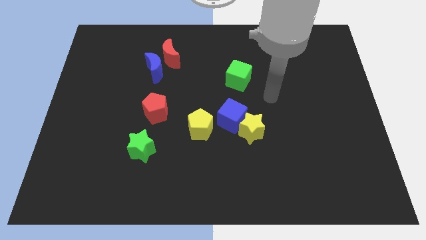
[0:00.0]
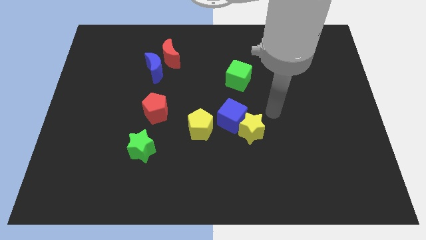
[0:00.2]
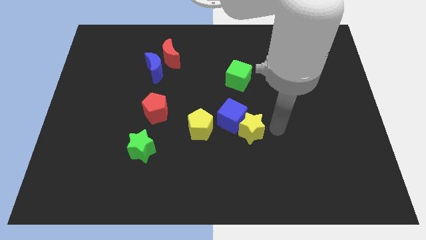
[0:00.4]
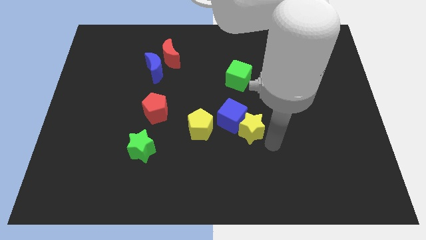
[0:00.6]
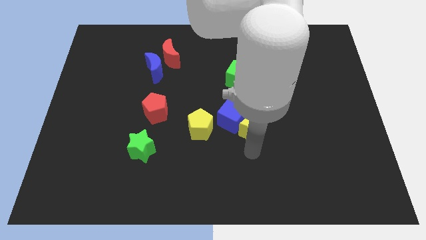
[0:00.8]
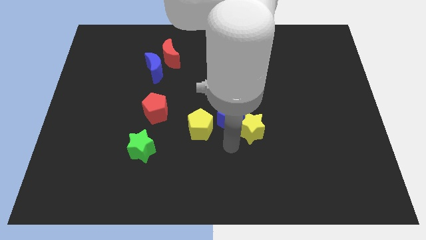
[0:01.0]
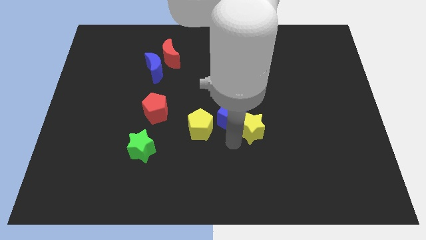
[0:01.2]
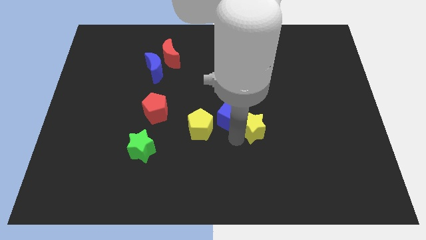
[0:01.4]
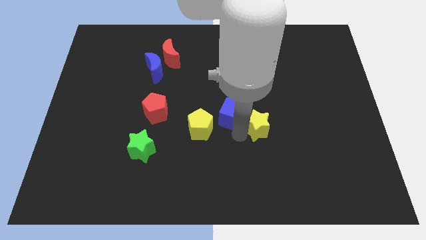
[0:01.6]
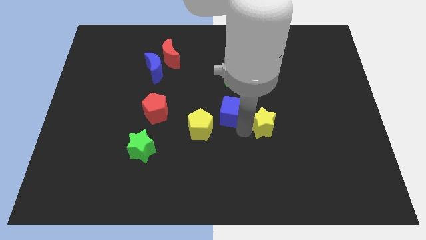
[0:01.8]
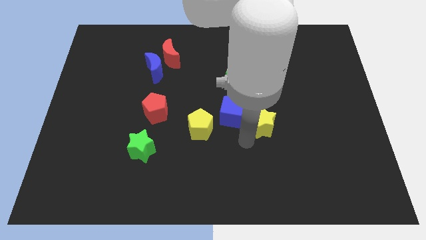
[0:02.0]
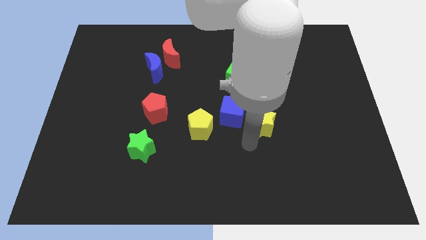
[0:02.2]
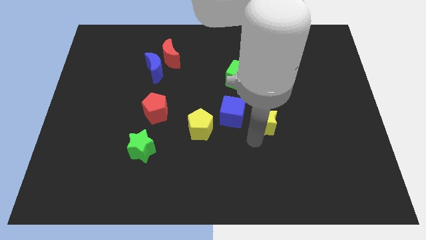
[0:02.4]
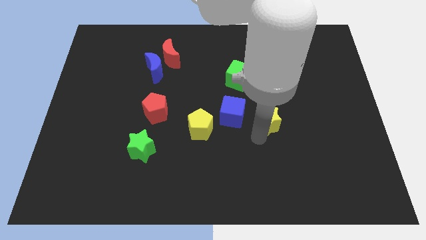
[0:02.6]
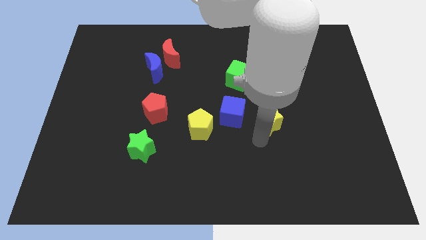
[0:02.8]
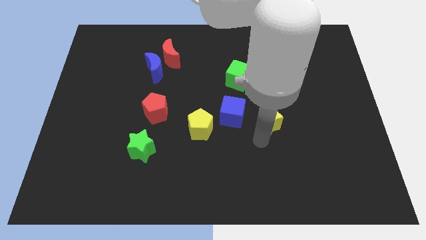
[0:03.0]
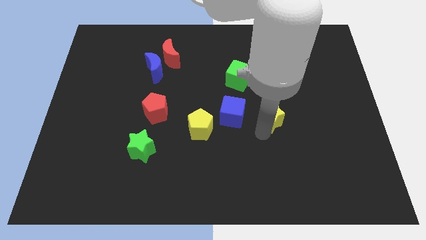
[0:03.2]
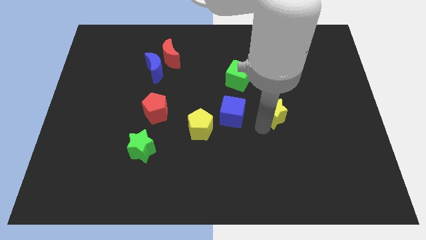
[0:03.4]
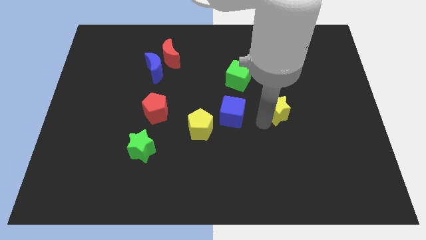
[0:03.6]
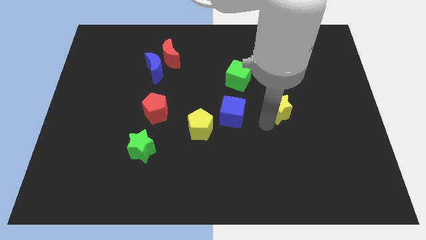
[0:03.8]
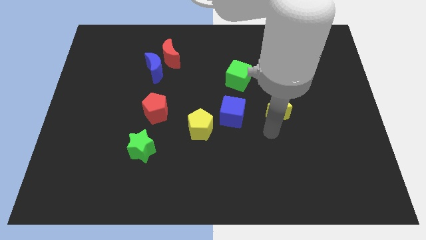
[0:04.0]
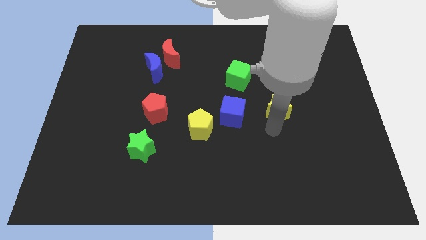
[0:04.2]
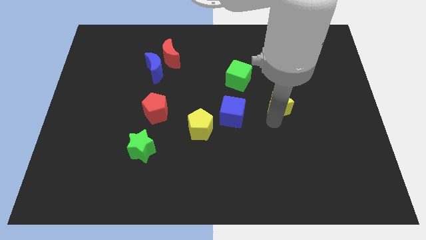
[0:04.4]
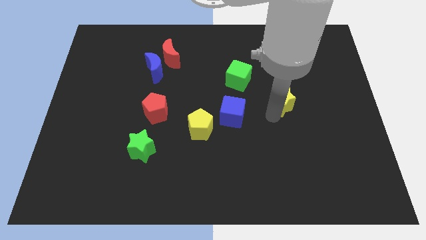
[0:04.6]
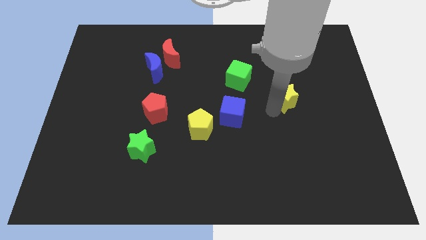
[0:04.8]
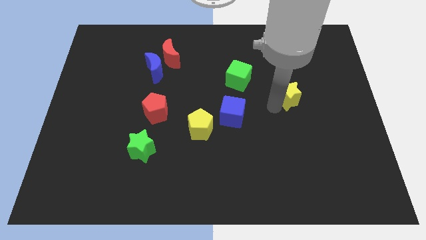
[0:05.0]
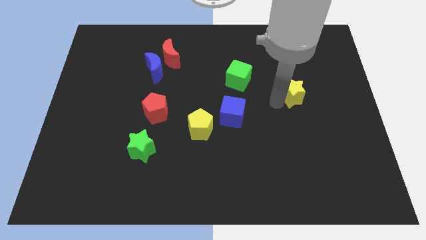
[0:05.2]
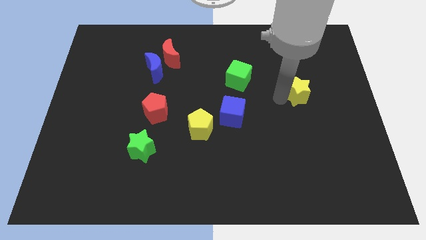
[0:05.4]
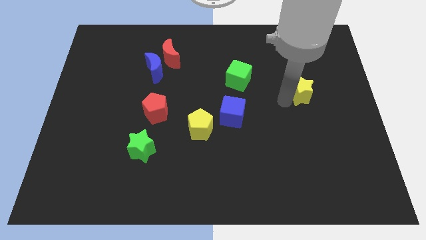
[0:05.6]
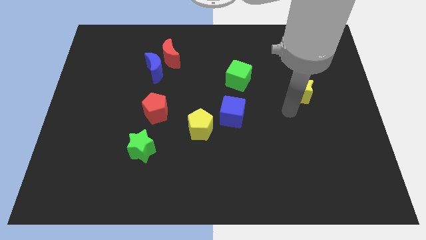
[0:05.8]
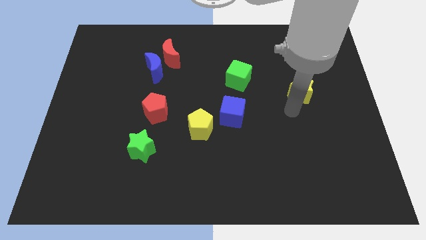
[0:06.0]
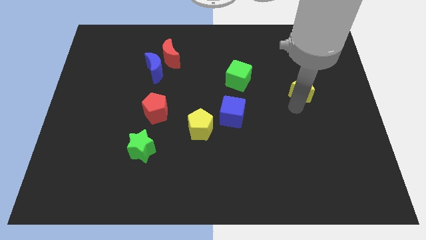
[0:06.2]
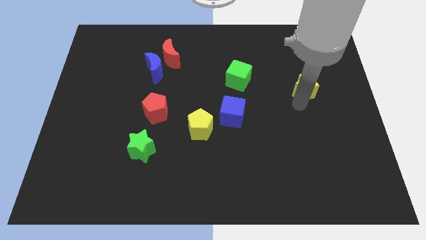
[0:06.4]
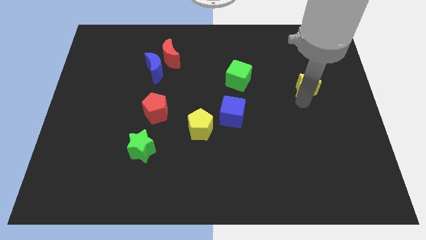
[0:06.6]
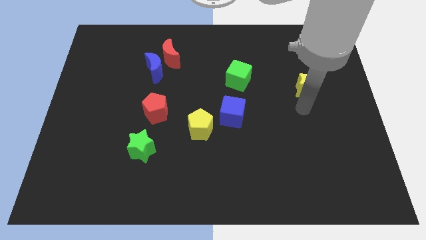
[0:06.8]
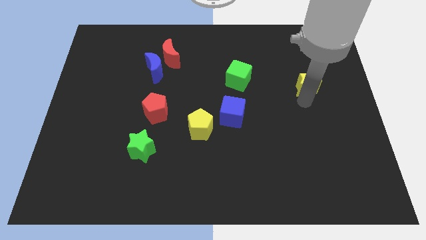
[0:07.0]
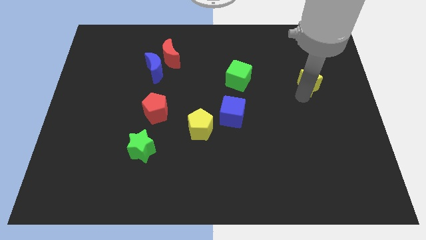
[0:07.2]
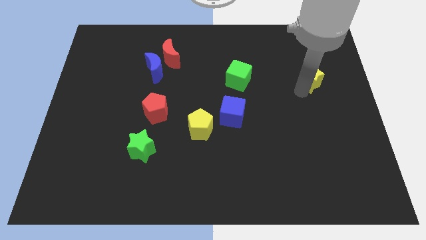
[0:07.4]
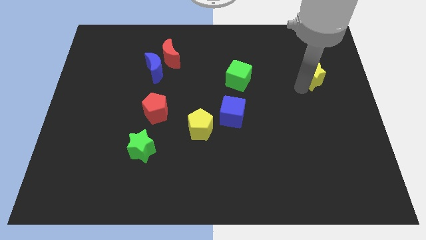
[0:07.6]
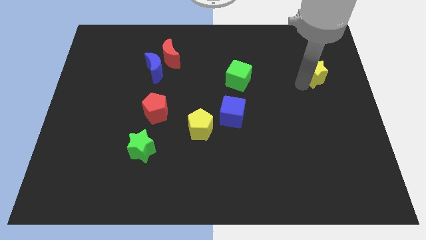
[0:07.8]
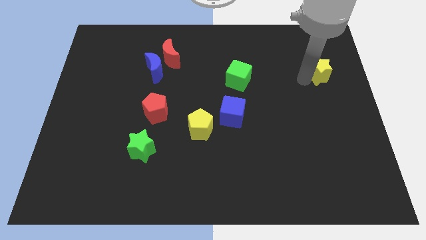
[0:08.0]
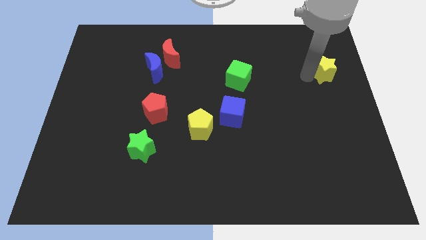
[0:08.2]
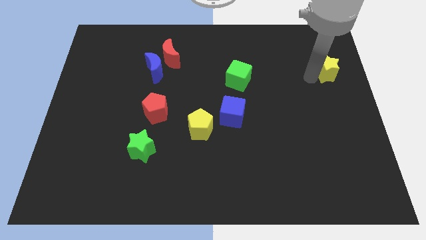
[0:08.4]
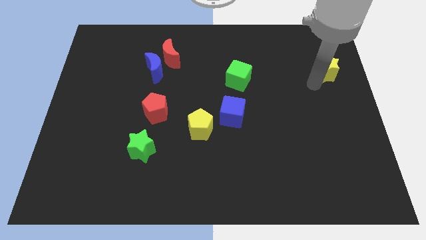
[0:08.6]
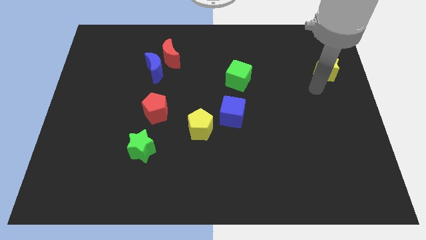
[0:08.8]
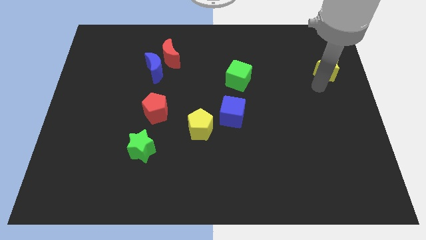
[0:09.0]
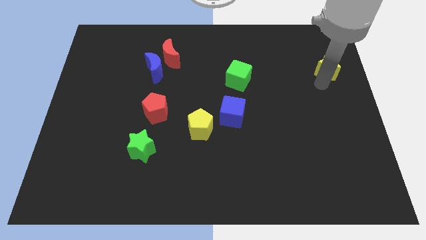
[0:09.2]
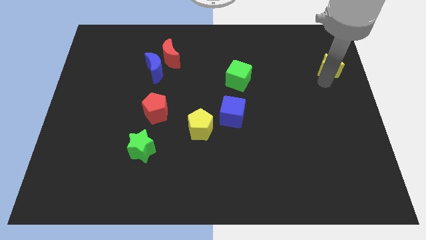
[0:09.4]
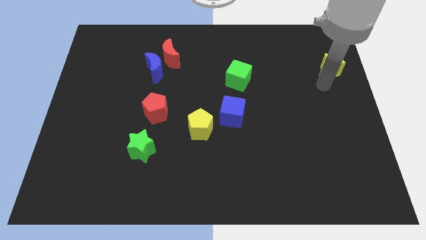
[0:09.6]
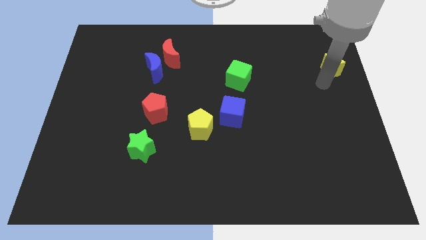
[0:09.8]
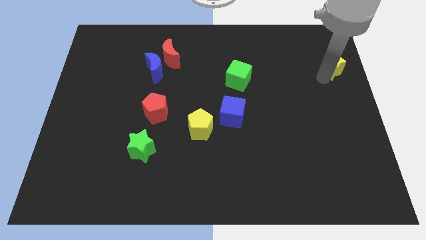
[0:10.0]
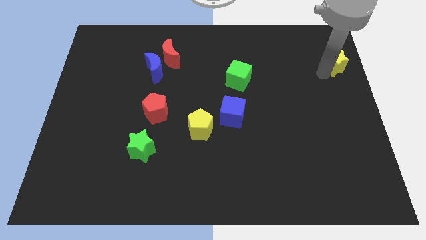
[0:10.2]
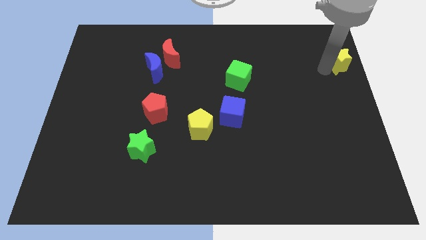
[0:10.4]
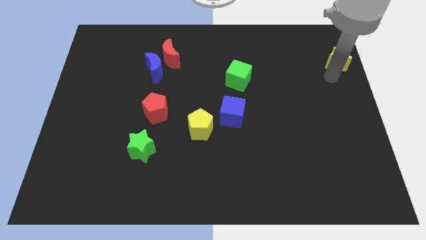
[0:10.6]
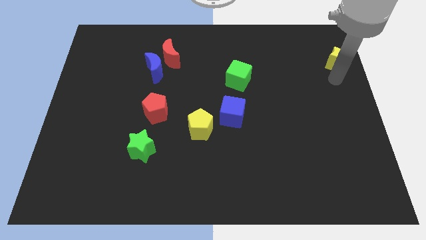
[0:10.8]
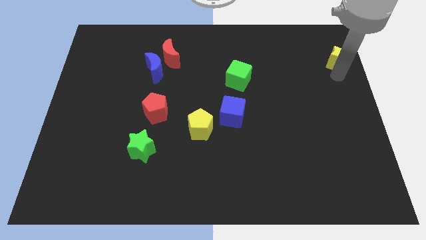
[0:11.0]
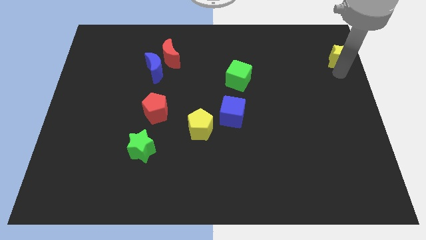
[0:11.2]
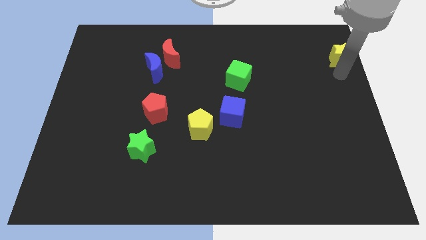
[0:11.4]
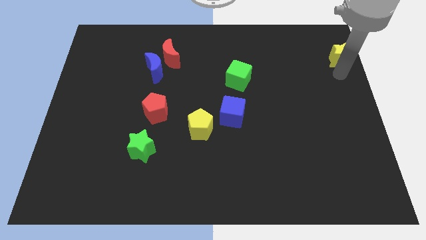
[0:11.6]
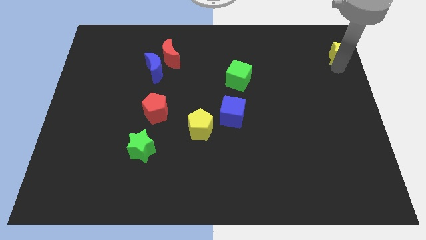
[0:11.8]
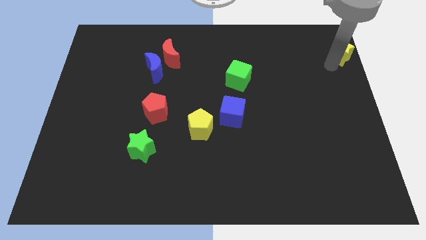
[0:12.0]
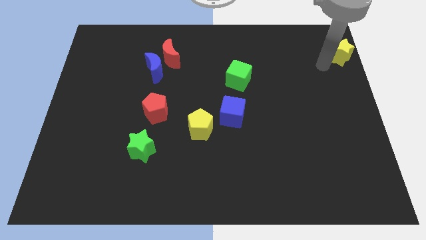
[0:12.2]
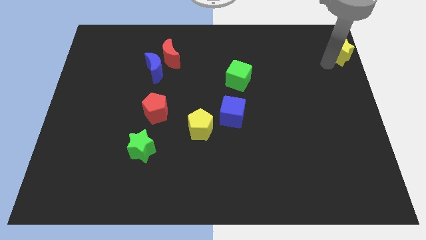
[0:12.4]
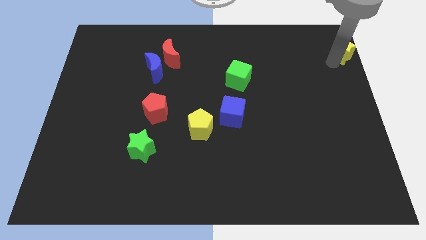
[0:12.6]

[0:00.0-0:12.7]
slide the yellow star to the top right of the board
